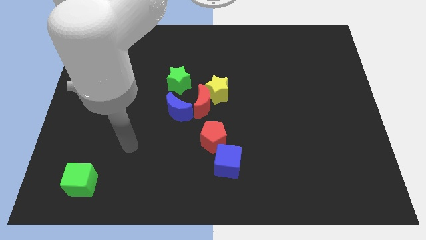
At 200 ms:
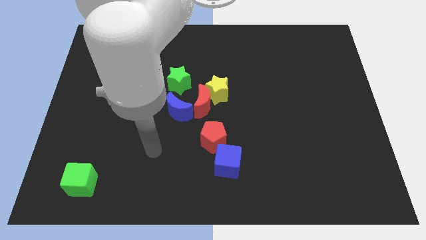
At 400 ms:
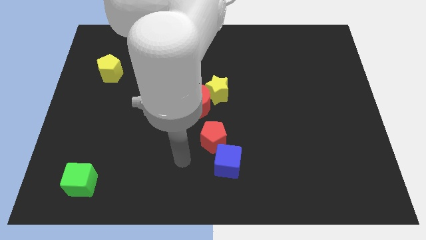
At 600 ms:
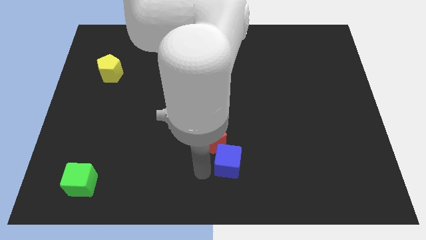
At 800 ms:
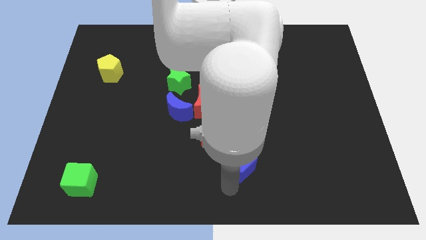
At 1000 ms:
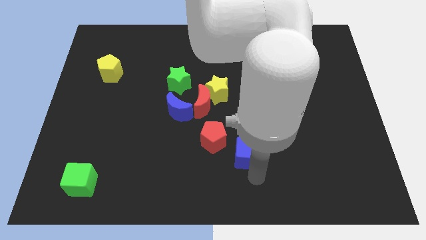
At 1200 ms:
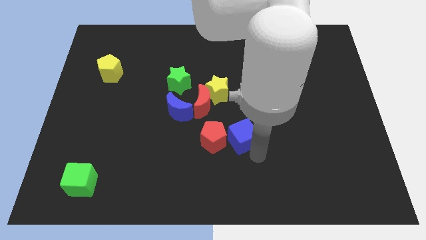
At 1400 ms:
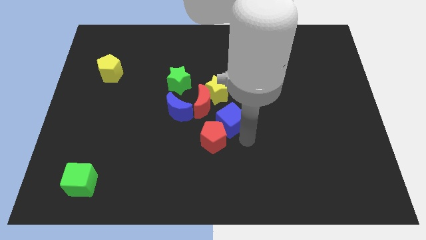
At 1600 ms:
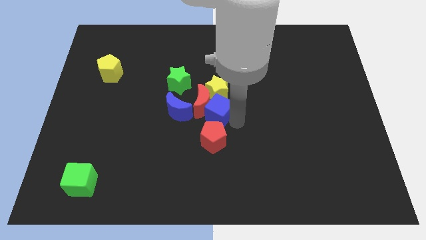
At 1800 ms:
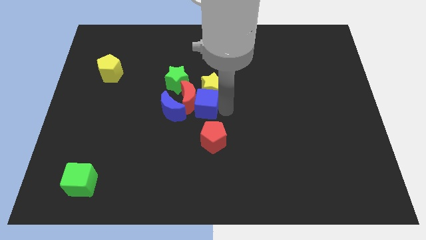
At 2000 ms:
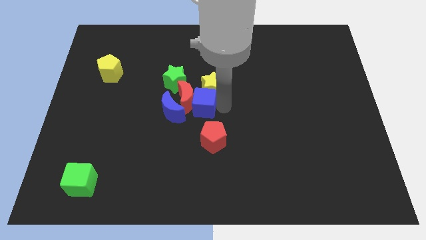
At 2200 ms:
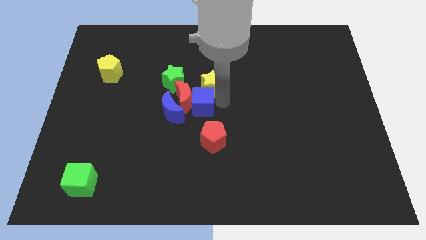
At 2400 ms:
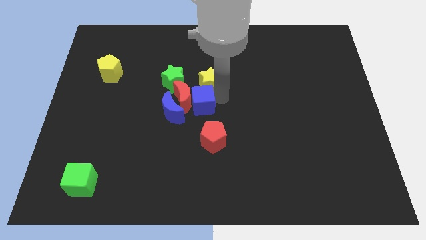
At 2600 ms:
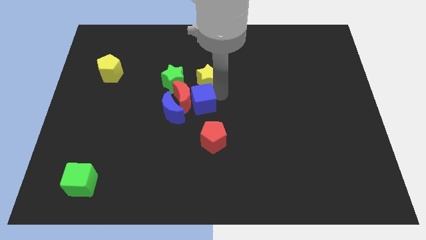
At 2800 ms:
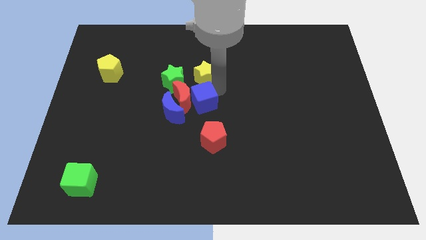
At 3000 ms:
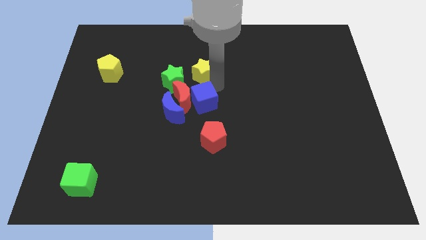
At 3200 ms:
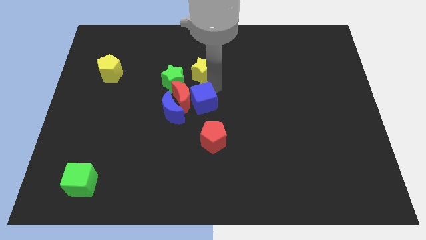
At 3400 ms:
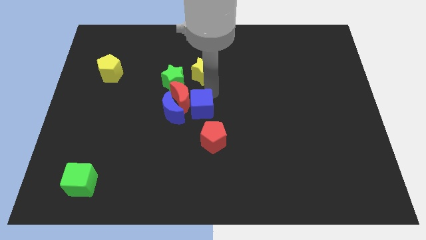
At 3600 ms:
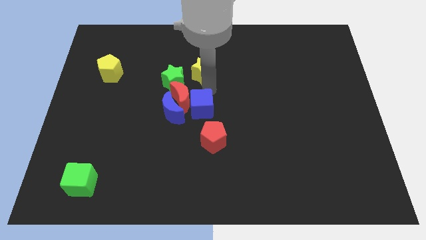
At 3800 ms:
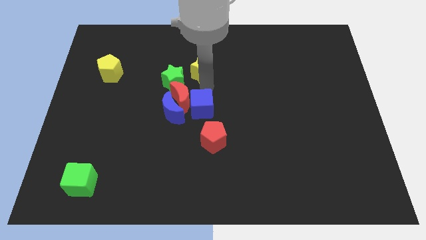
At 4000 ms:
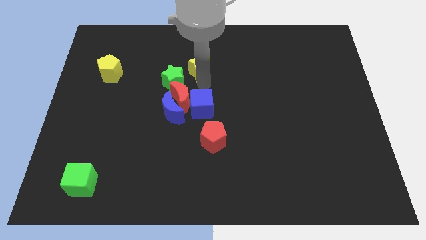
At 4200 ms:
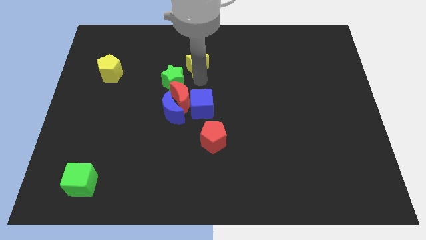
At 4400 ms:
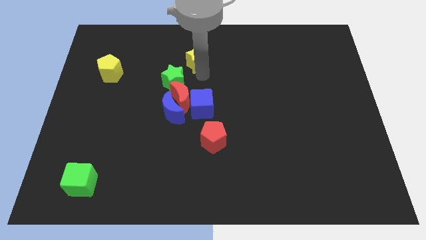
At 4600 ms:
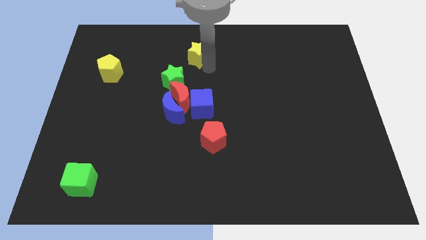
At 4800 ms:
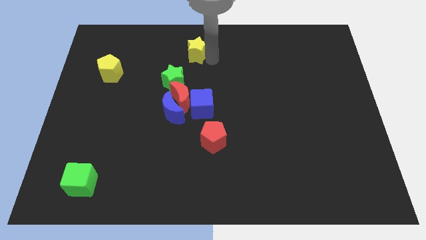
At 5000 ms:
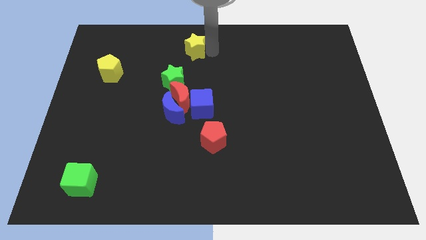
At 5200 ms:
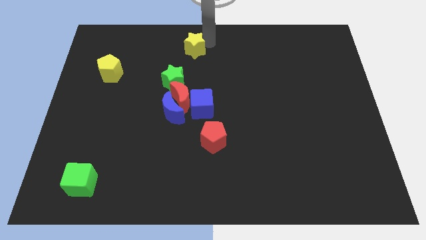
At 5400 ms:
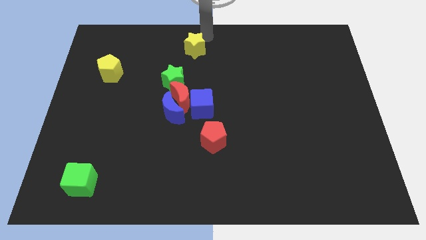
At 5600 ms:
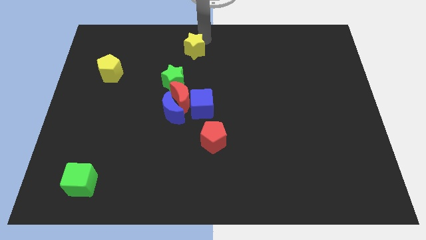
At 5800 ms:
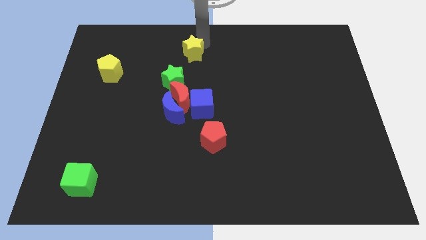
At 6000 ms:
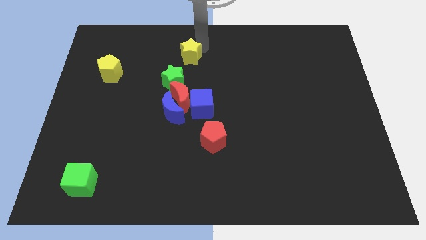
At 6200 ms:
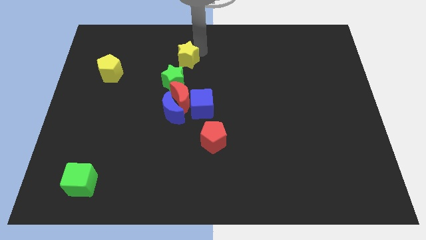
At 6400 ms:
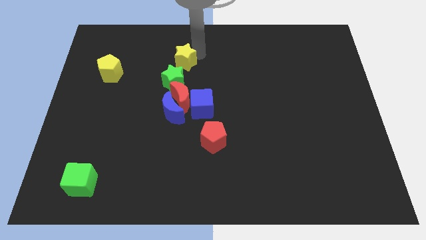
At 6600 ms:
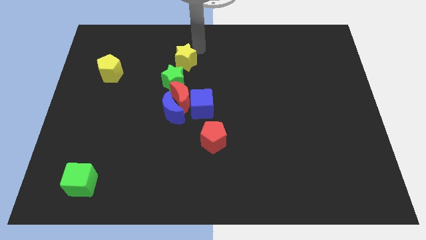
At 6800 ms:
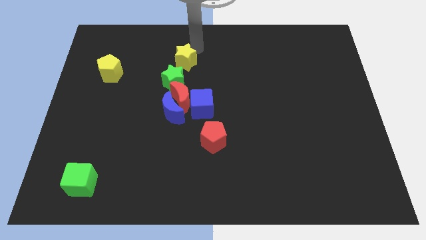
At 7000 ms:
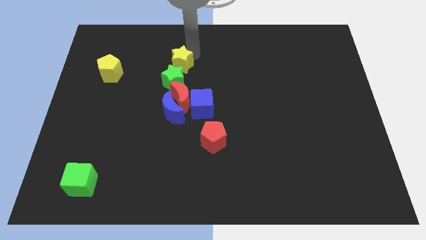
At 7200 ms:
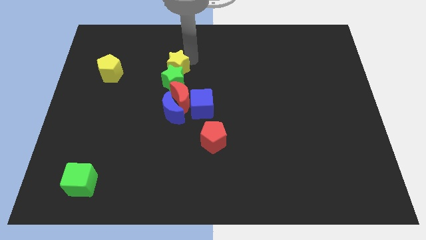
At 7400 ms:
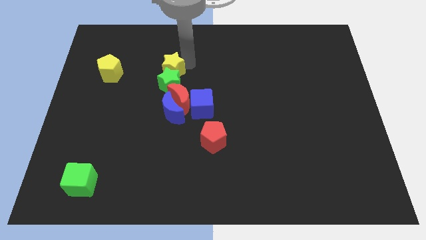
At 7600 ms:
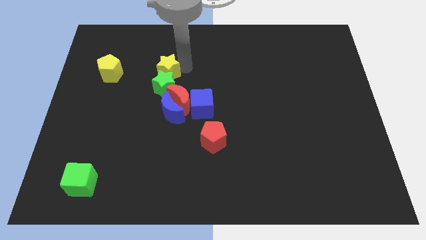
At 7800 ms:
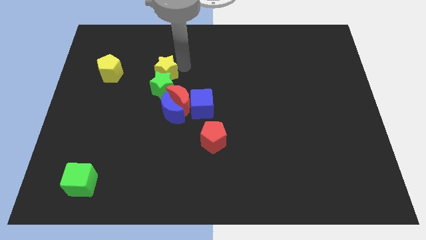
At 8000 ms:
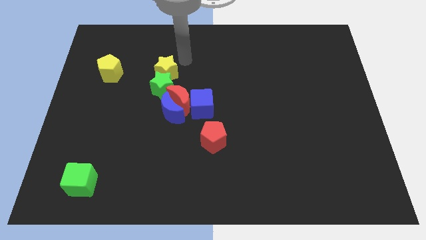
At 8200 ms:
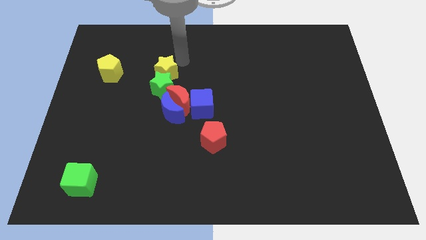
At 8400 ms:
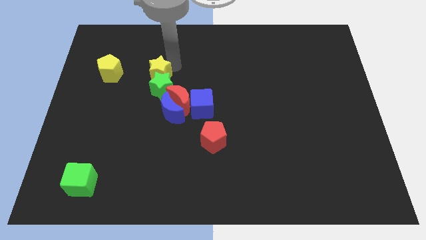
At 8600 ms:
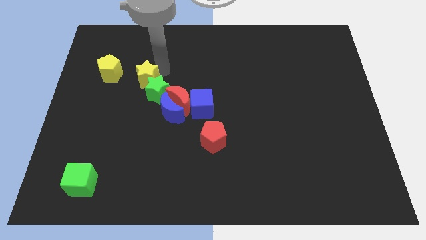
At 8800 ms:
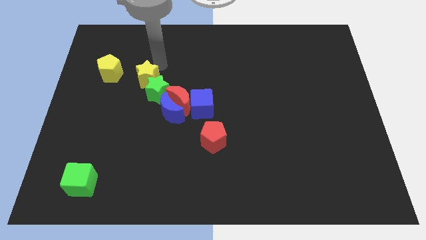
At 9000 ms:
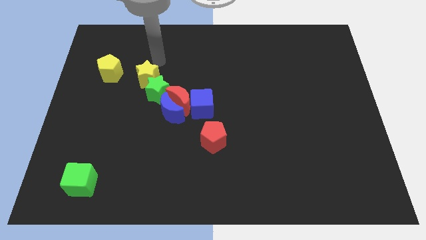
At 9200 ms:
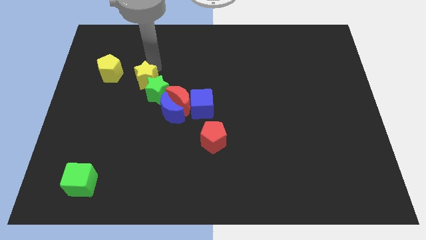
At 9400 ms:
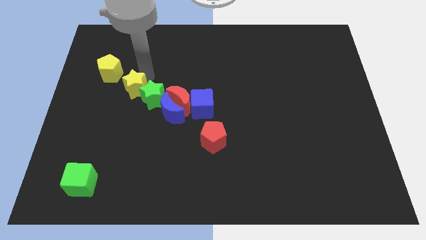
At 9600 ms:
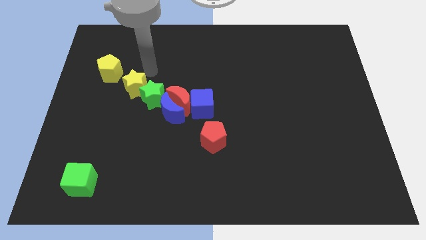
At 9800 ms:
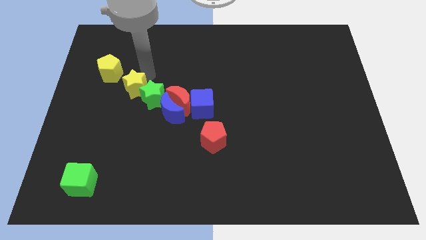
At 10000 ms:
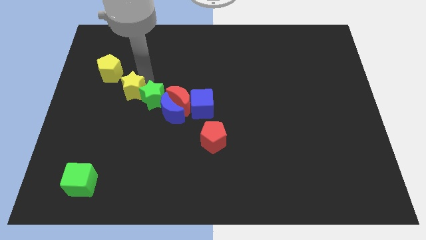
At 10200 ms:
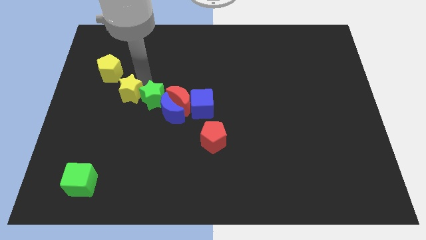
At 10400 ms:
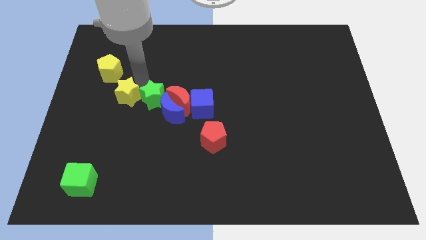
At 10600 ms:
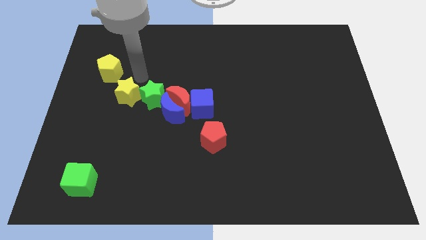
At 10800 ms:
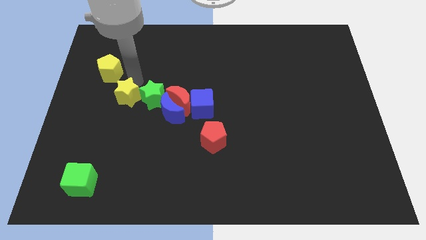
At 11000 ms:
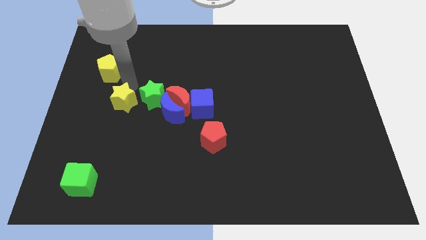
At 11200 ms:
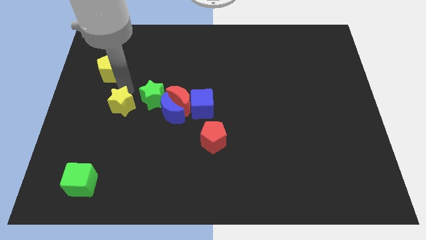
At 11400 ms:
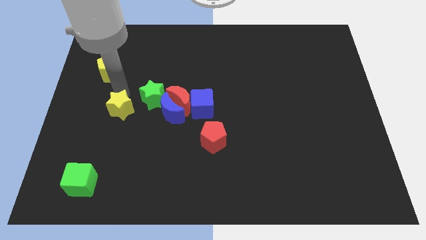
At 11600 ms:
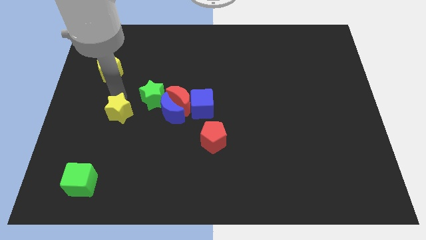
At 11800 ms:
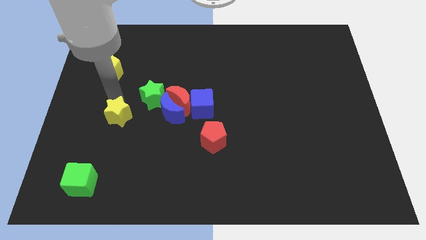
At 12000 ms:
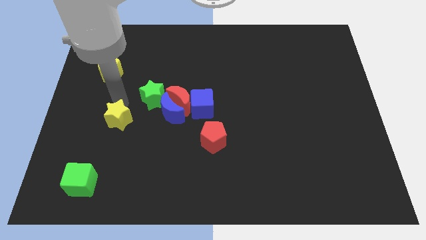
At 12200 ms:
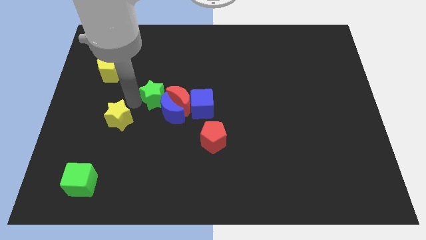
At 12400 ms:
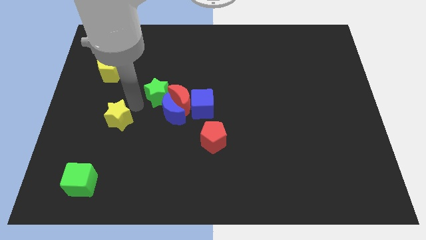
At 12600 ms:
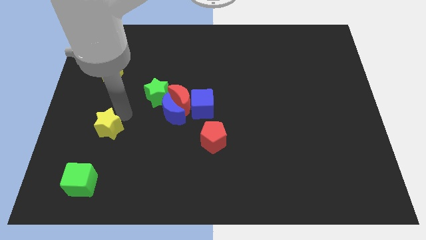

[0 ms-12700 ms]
put the yellow star to the top side of the green cube

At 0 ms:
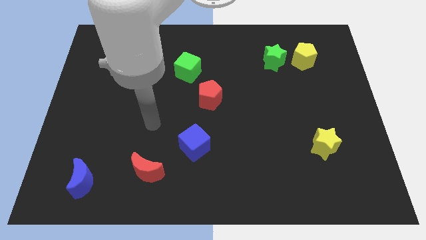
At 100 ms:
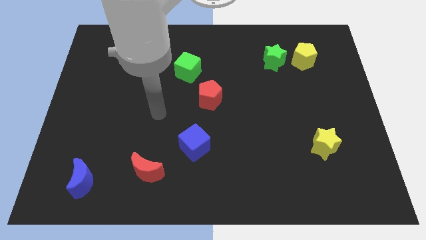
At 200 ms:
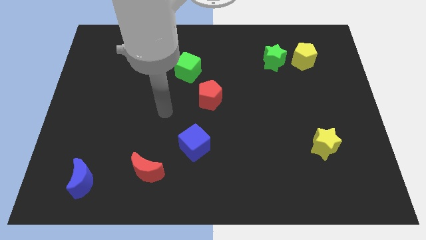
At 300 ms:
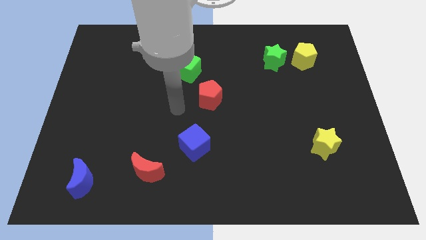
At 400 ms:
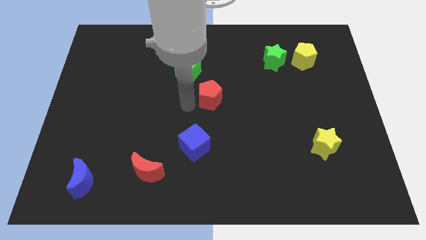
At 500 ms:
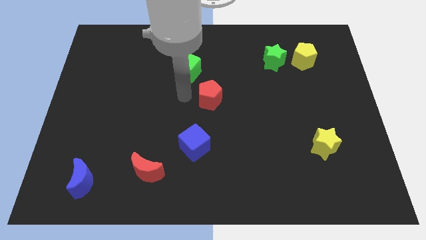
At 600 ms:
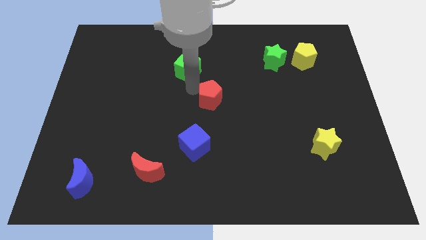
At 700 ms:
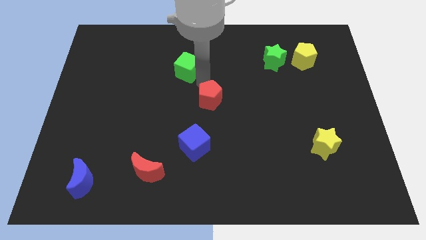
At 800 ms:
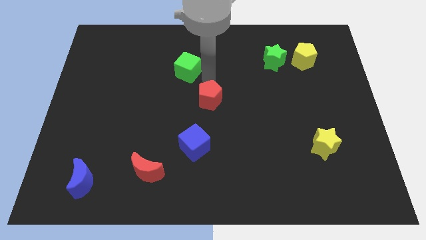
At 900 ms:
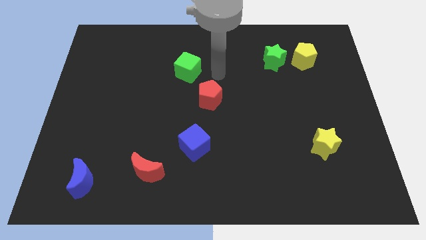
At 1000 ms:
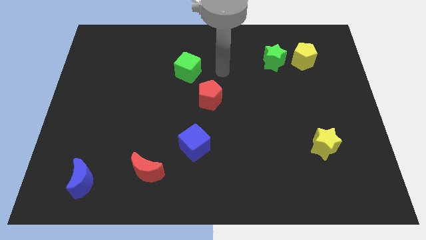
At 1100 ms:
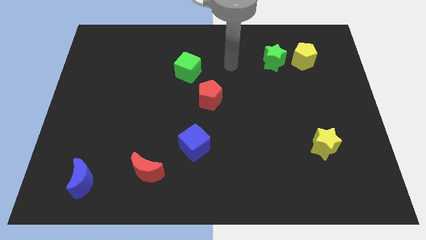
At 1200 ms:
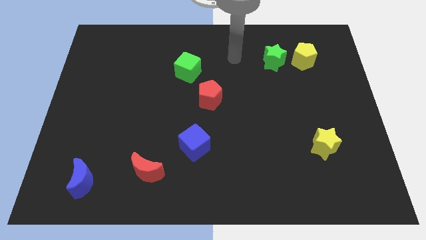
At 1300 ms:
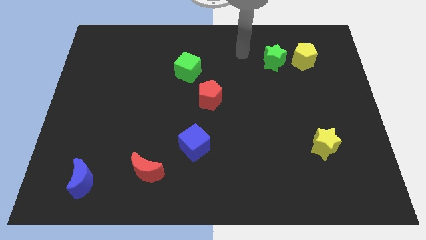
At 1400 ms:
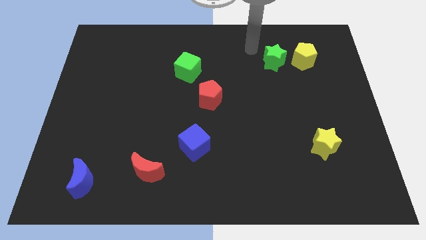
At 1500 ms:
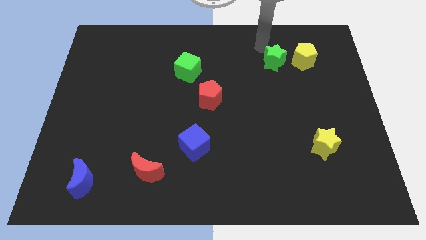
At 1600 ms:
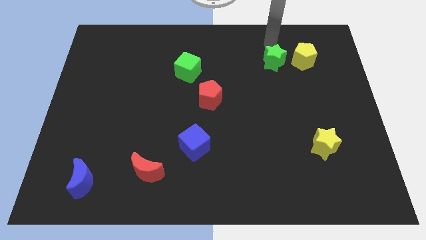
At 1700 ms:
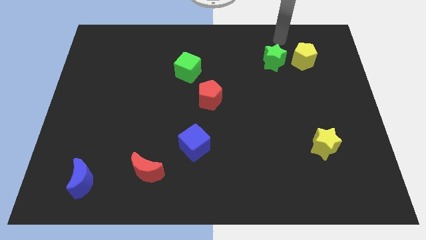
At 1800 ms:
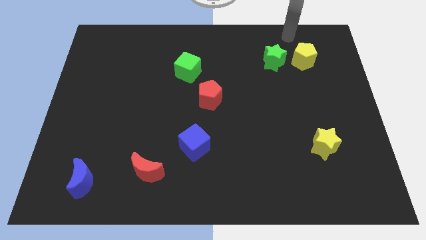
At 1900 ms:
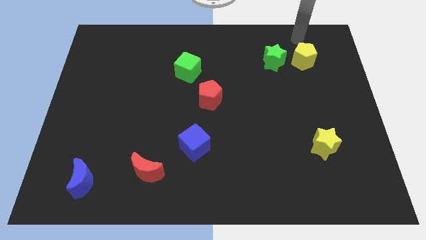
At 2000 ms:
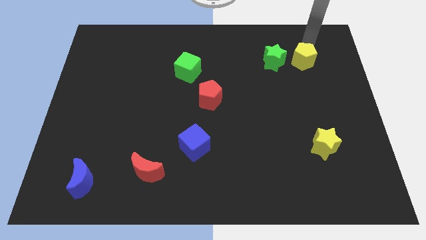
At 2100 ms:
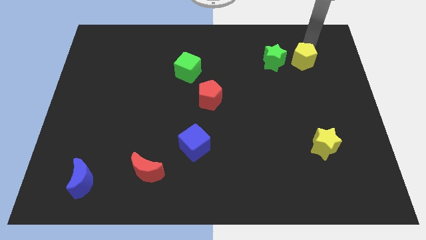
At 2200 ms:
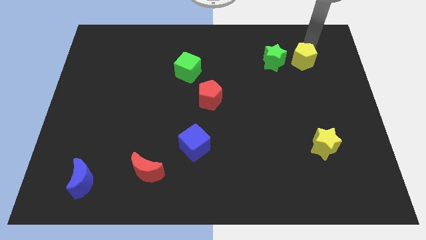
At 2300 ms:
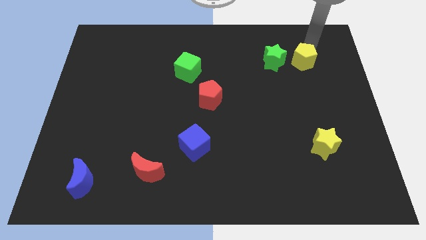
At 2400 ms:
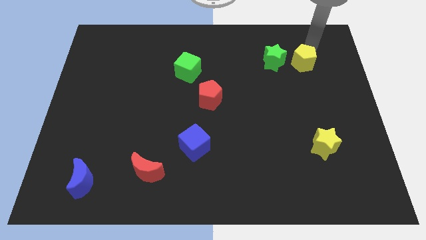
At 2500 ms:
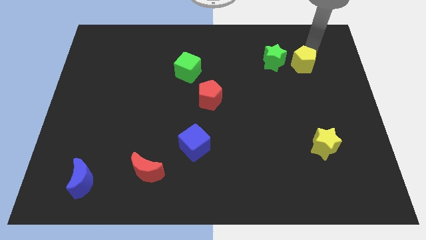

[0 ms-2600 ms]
push the yellow pentagon to the bottom right of the green star
